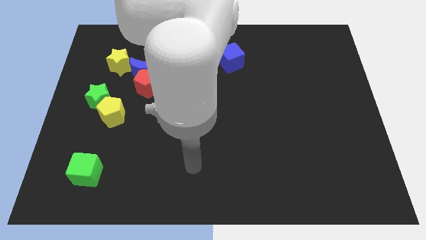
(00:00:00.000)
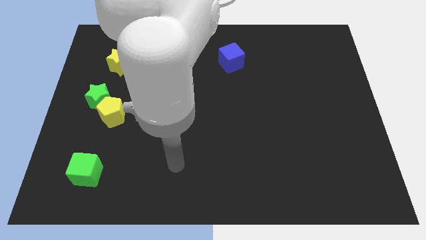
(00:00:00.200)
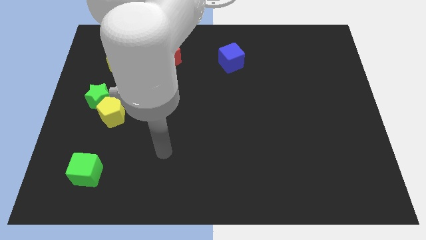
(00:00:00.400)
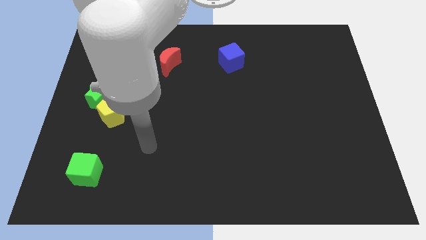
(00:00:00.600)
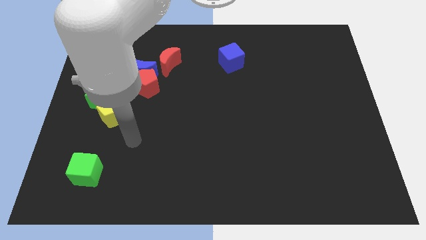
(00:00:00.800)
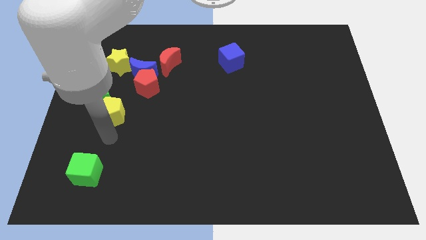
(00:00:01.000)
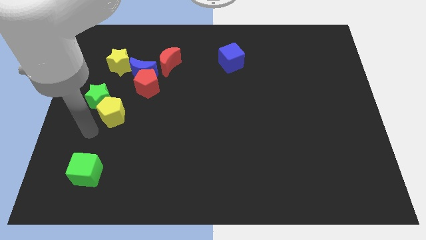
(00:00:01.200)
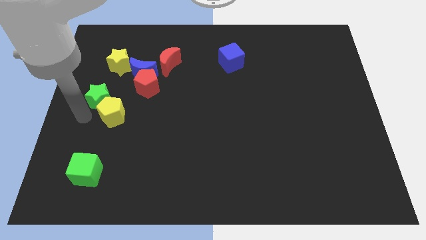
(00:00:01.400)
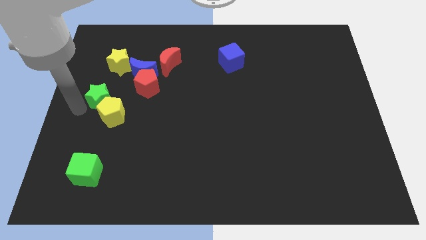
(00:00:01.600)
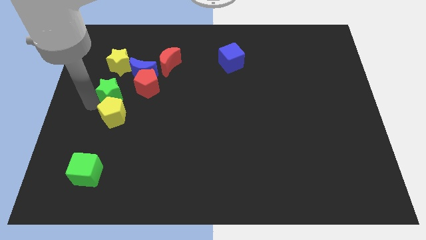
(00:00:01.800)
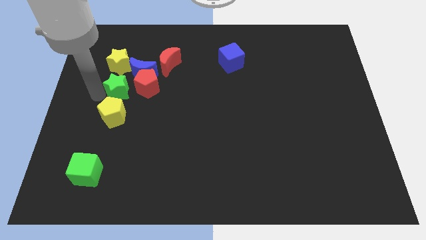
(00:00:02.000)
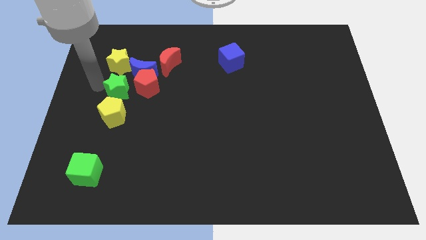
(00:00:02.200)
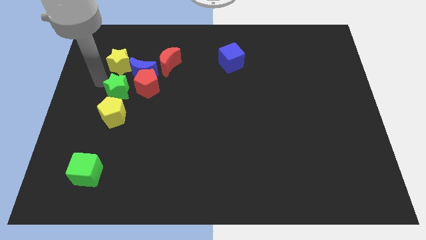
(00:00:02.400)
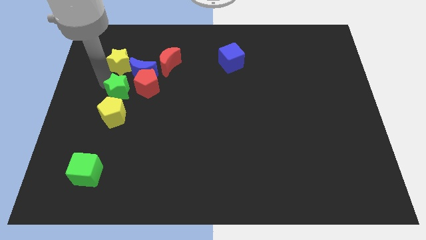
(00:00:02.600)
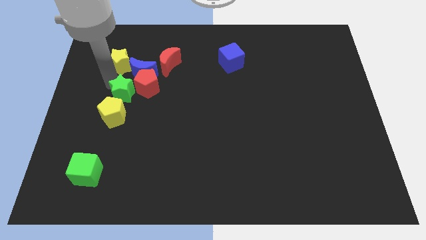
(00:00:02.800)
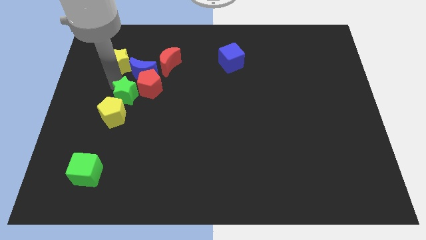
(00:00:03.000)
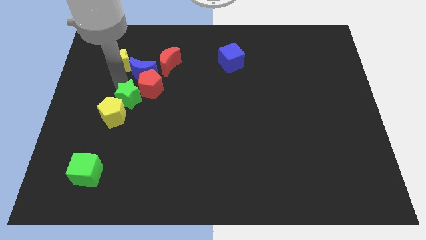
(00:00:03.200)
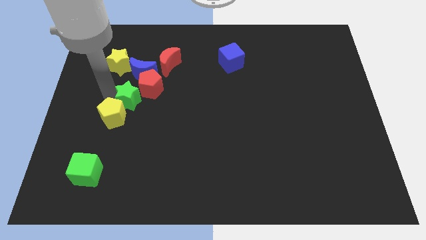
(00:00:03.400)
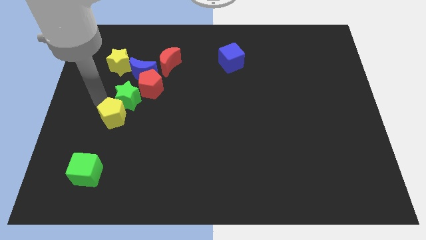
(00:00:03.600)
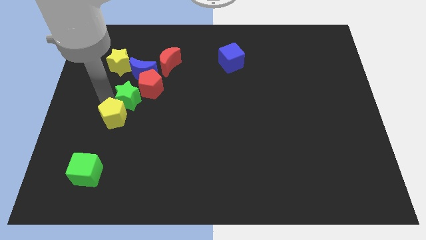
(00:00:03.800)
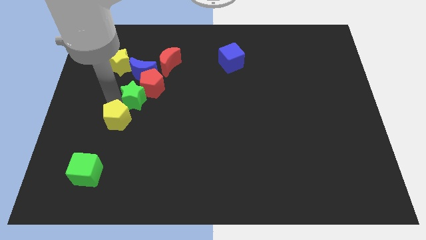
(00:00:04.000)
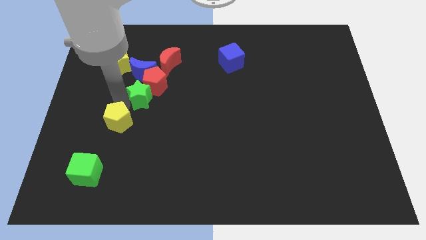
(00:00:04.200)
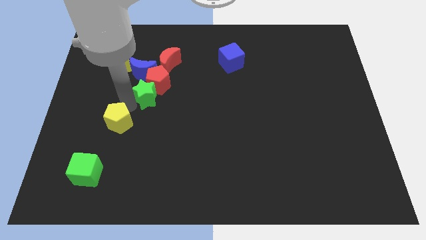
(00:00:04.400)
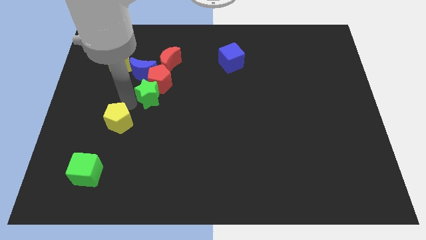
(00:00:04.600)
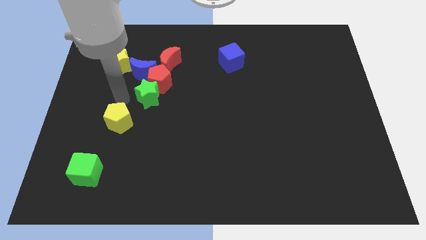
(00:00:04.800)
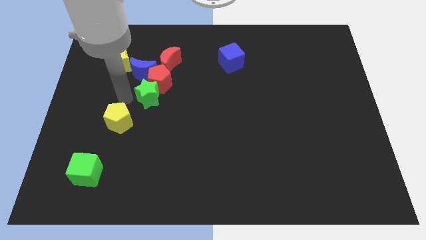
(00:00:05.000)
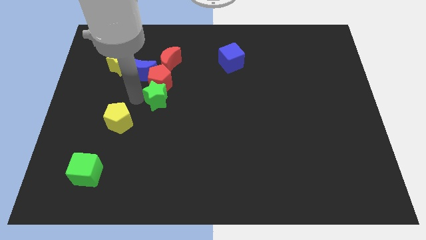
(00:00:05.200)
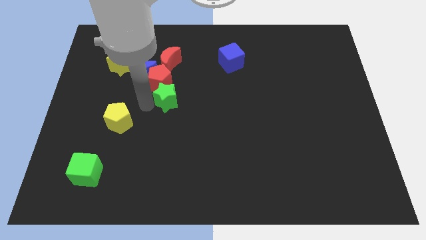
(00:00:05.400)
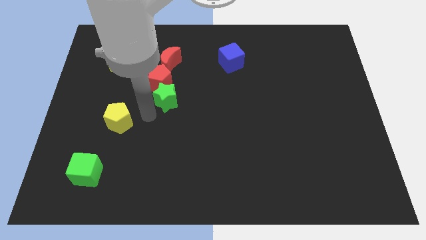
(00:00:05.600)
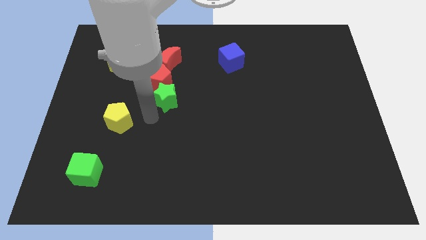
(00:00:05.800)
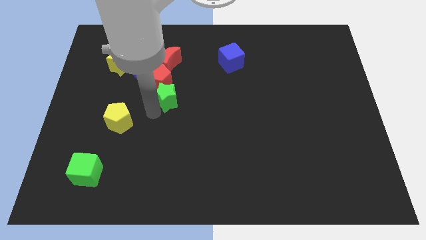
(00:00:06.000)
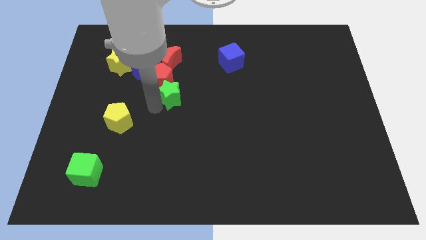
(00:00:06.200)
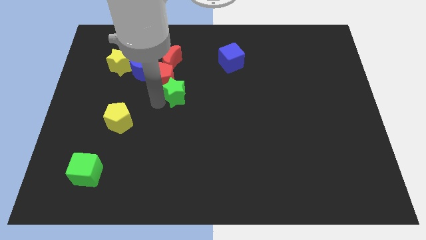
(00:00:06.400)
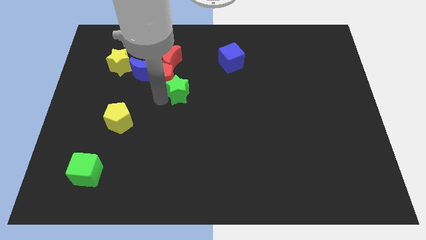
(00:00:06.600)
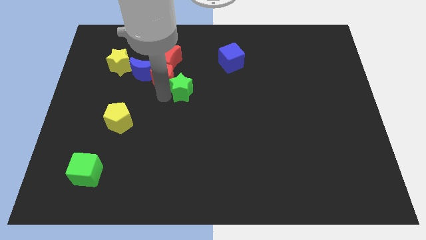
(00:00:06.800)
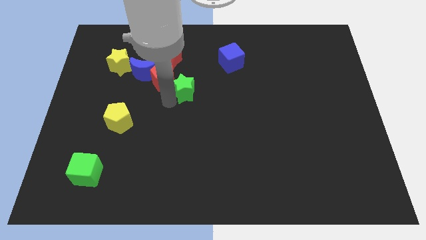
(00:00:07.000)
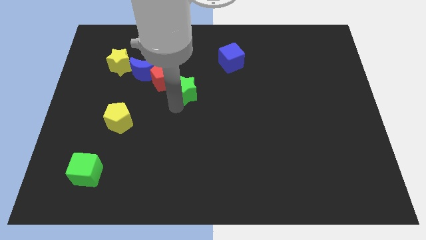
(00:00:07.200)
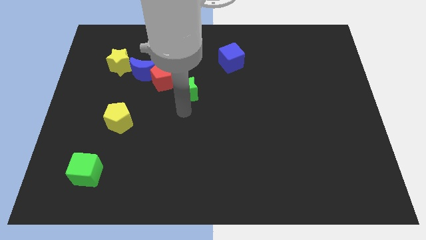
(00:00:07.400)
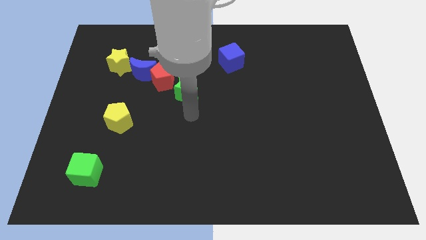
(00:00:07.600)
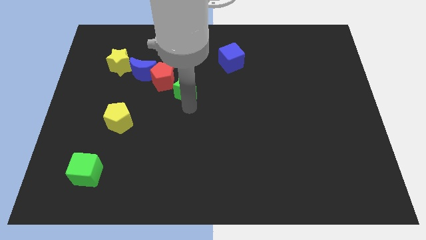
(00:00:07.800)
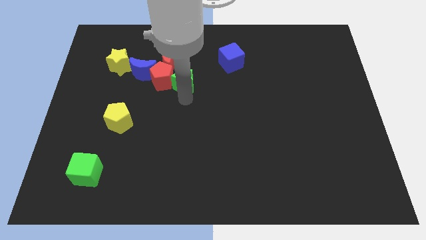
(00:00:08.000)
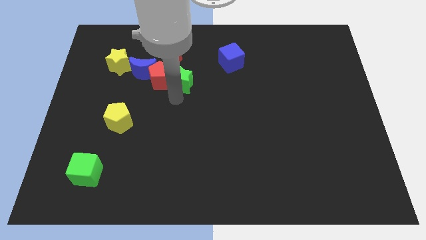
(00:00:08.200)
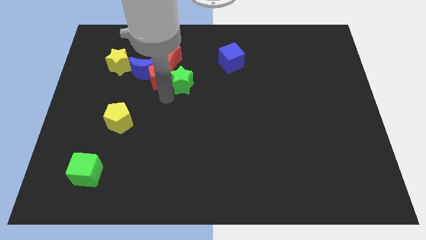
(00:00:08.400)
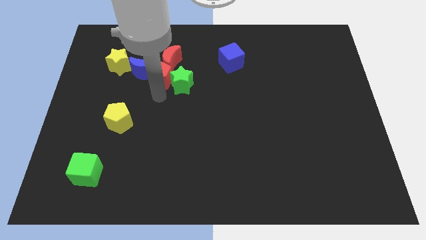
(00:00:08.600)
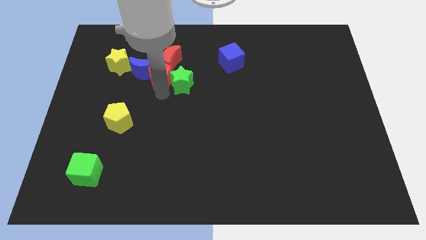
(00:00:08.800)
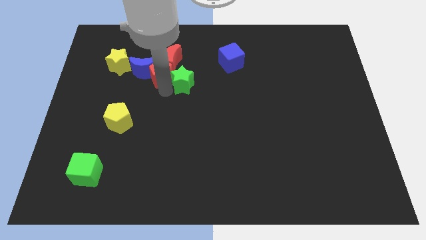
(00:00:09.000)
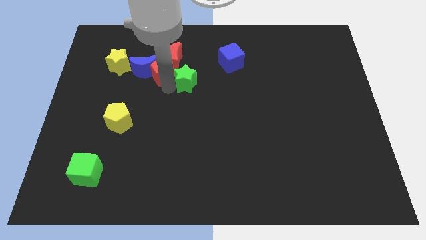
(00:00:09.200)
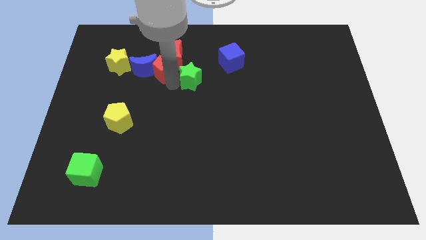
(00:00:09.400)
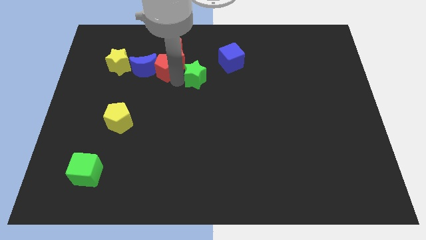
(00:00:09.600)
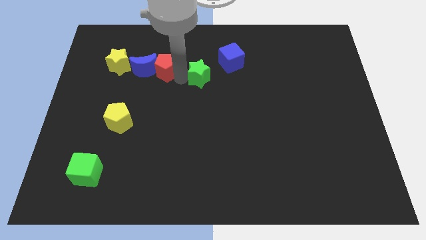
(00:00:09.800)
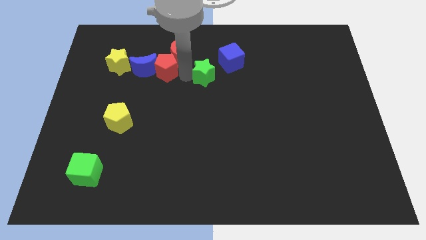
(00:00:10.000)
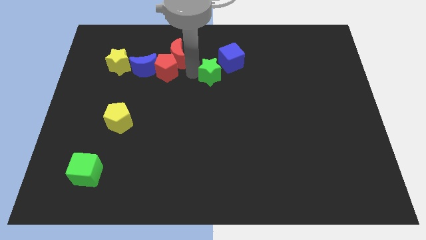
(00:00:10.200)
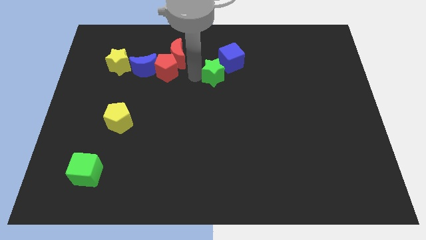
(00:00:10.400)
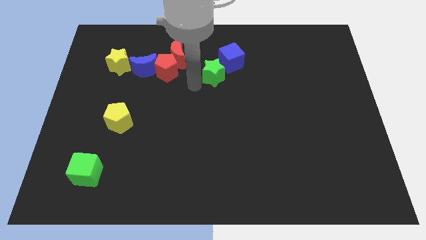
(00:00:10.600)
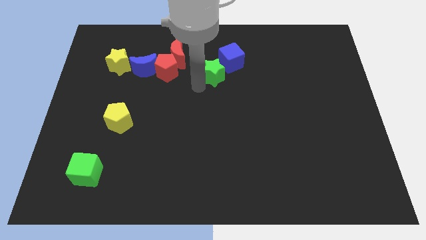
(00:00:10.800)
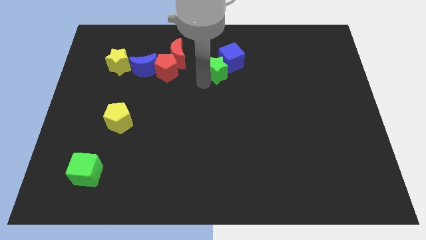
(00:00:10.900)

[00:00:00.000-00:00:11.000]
slide the green star close to the blue cube

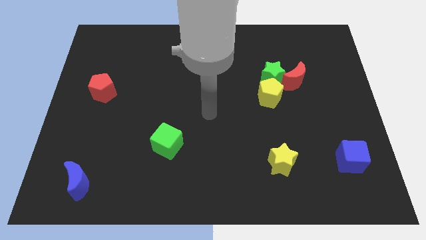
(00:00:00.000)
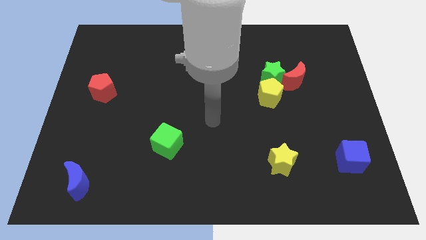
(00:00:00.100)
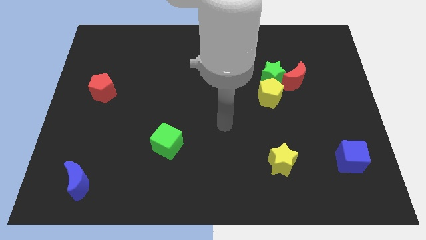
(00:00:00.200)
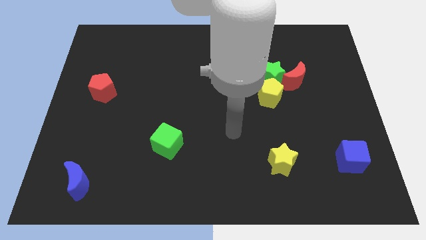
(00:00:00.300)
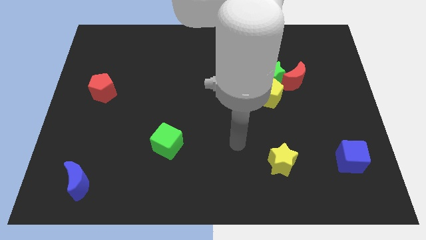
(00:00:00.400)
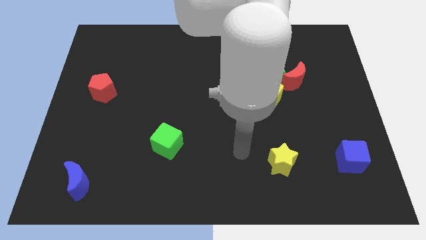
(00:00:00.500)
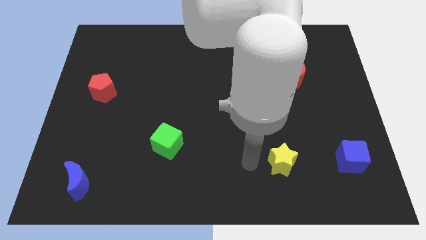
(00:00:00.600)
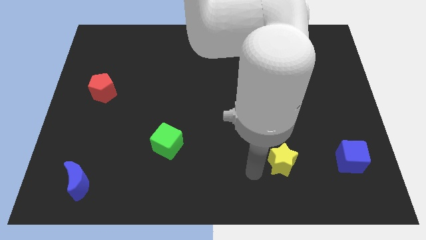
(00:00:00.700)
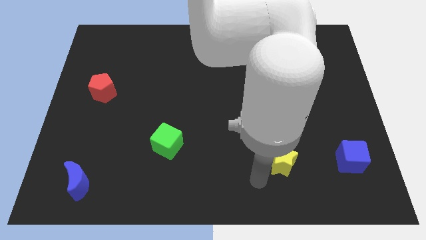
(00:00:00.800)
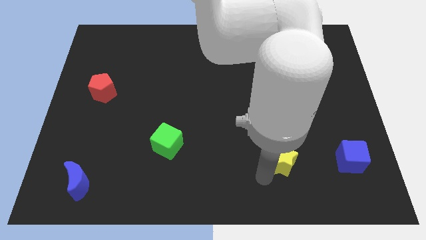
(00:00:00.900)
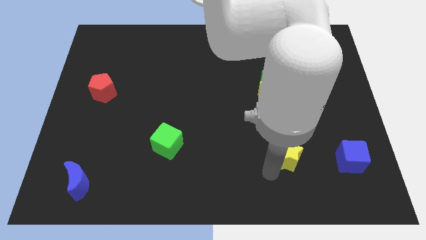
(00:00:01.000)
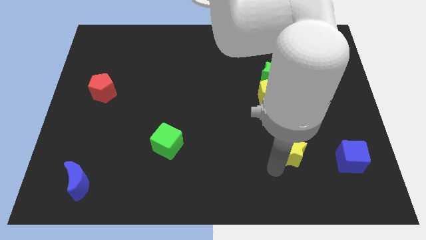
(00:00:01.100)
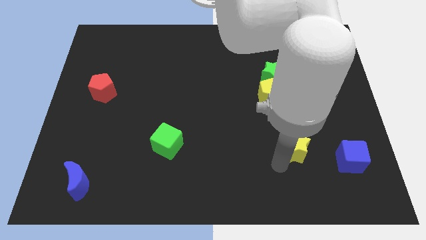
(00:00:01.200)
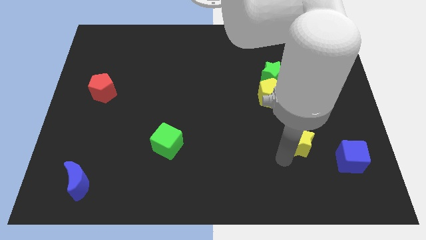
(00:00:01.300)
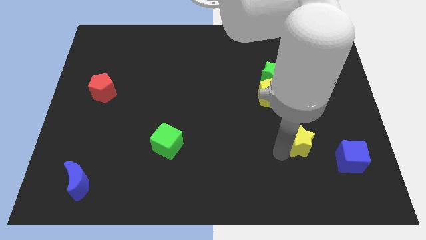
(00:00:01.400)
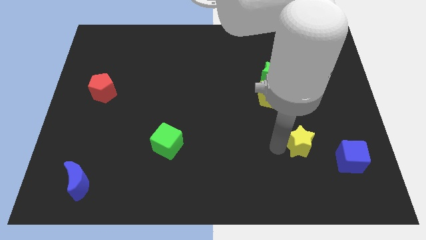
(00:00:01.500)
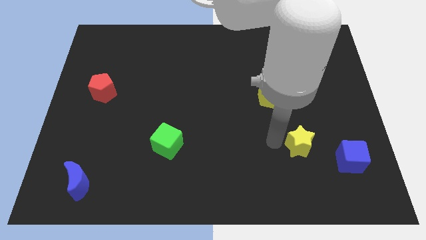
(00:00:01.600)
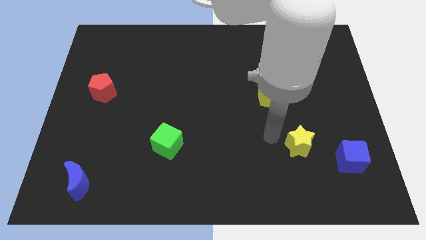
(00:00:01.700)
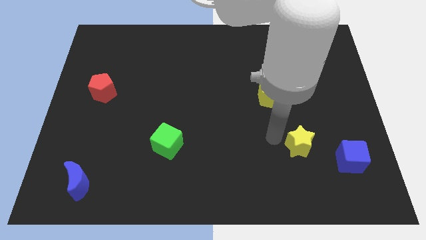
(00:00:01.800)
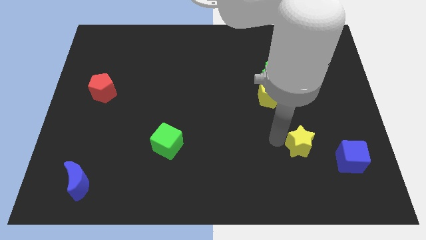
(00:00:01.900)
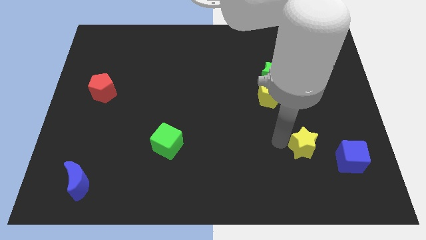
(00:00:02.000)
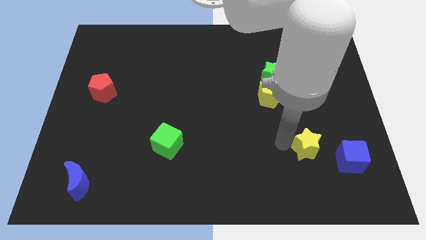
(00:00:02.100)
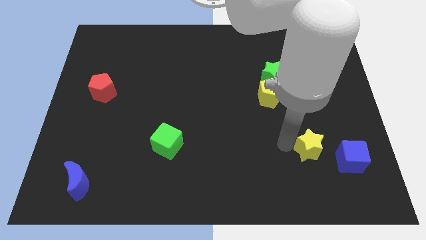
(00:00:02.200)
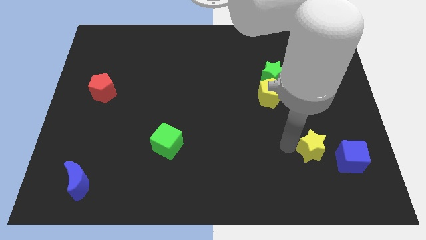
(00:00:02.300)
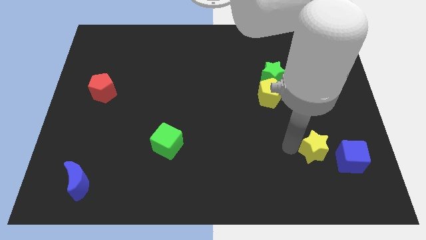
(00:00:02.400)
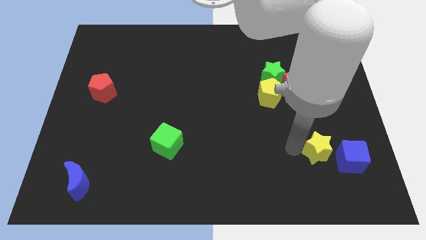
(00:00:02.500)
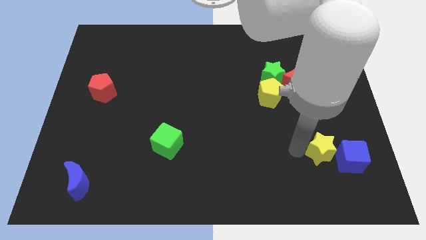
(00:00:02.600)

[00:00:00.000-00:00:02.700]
put the yellow star towards the blue cube
